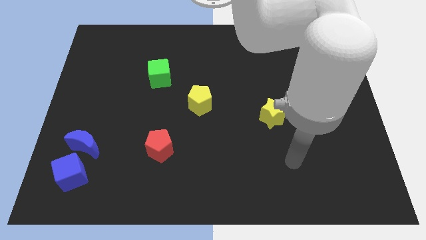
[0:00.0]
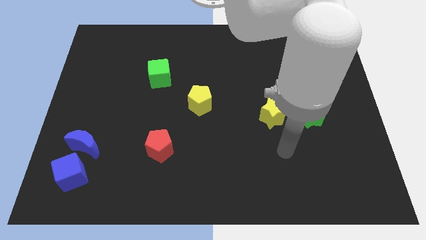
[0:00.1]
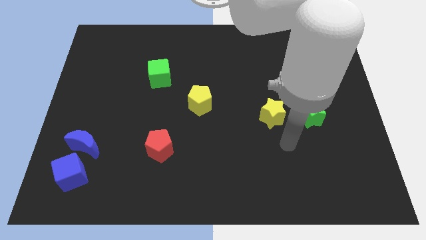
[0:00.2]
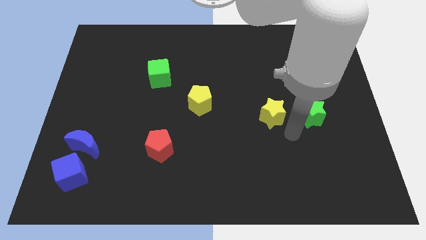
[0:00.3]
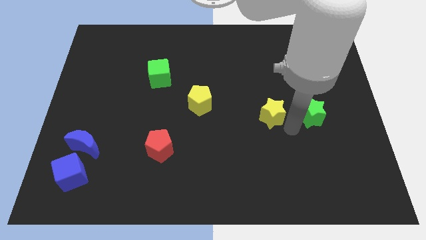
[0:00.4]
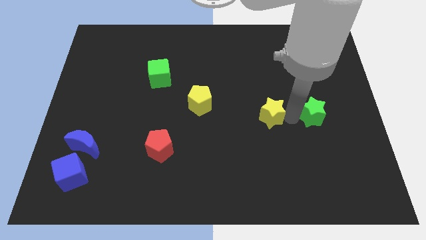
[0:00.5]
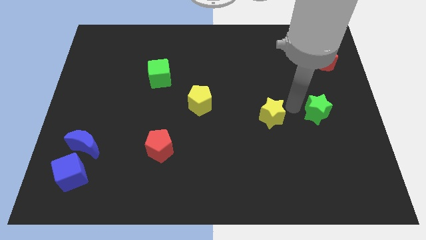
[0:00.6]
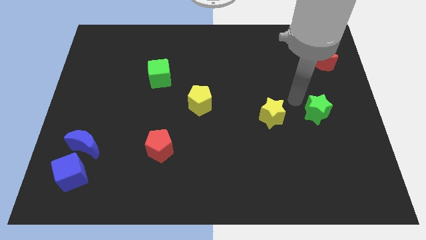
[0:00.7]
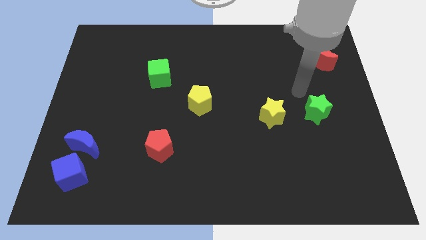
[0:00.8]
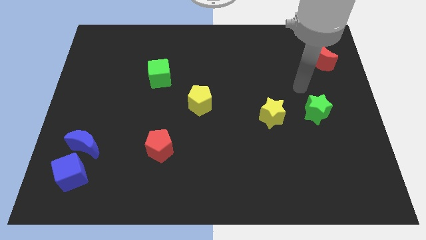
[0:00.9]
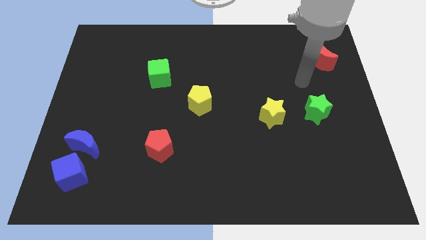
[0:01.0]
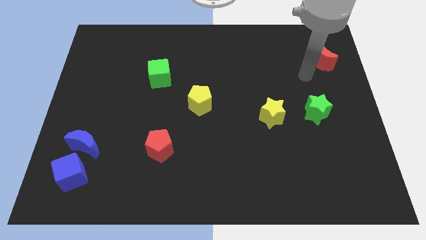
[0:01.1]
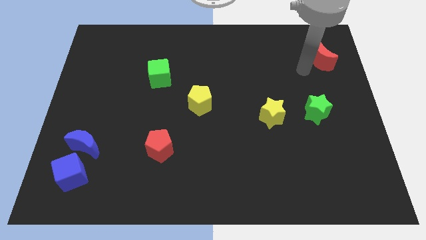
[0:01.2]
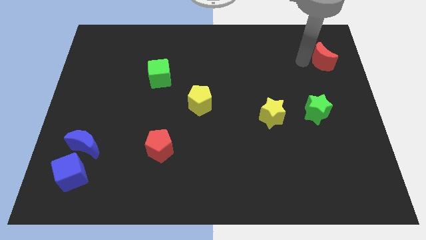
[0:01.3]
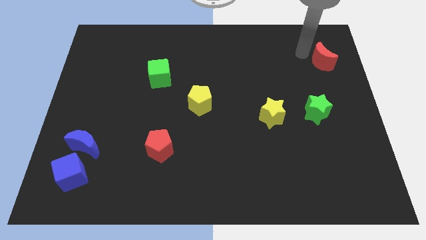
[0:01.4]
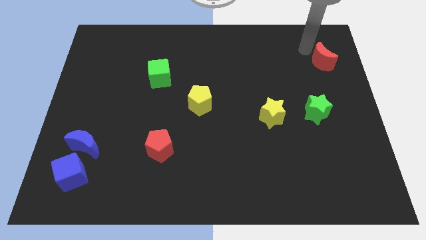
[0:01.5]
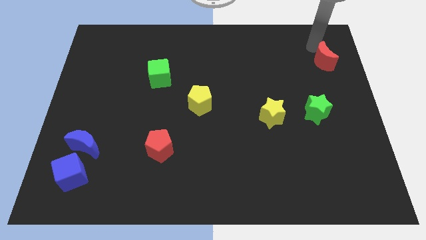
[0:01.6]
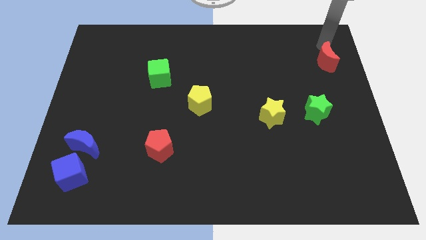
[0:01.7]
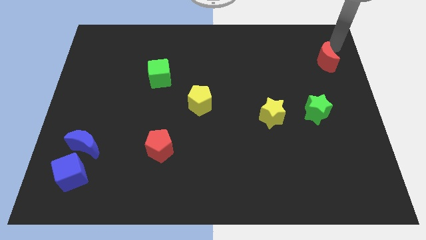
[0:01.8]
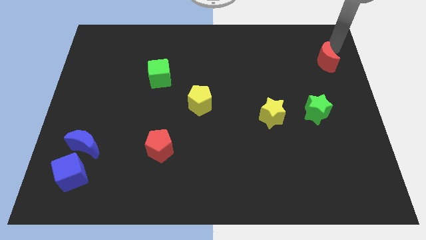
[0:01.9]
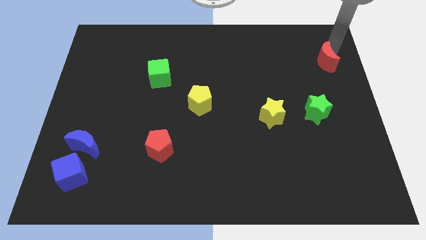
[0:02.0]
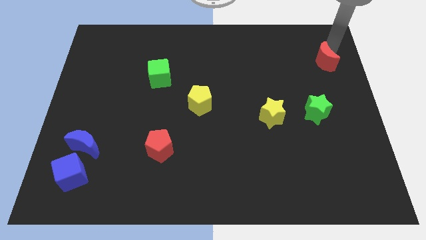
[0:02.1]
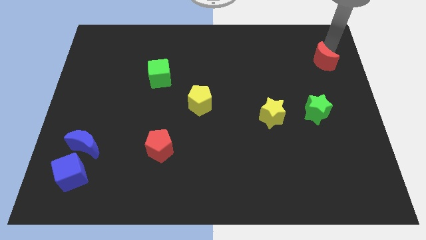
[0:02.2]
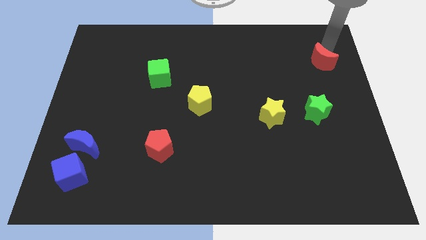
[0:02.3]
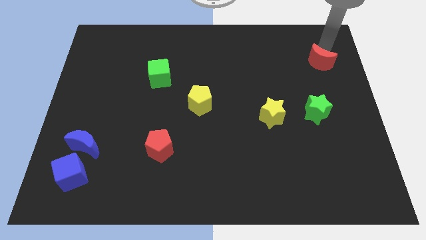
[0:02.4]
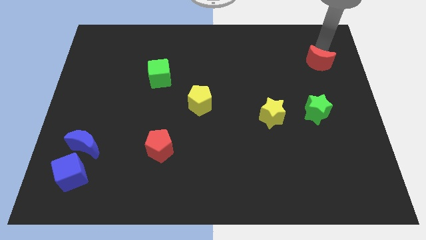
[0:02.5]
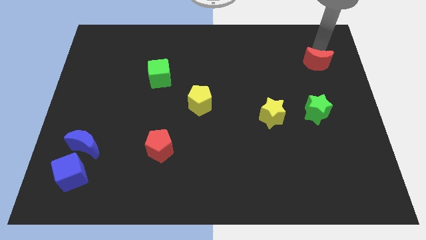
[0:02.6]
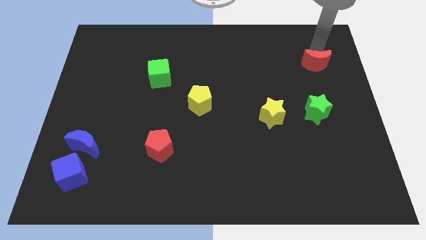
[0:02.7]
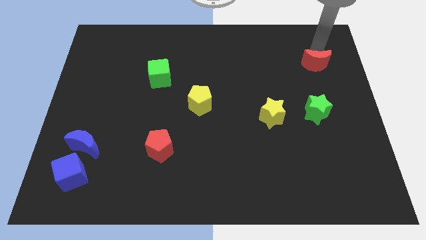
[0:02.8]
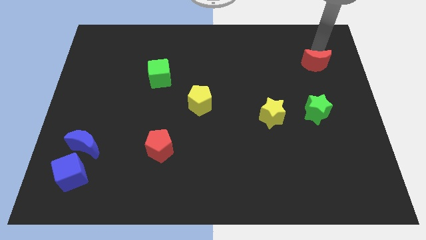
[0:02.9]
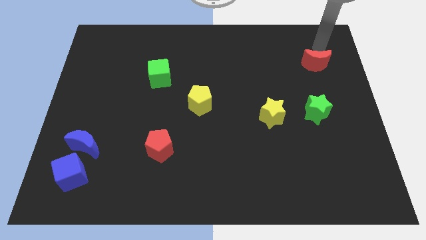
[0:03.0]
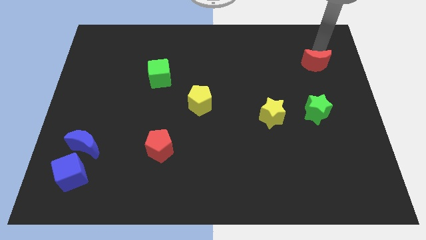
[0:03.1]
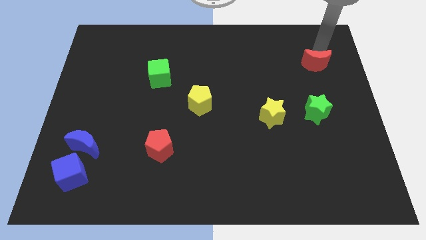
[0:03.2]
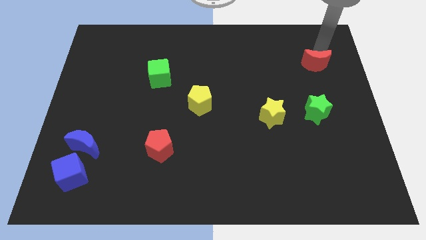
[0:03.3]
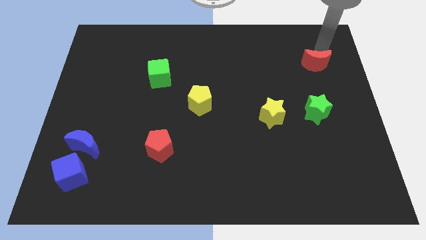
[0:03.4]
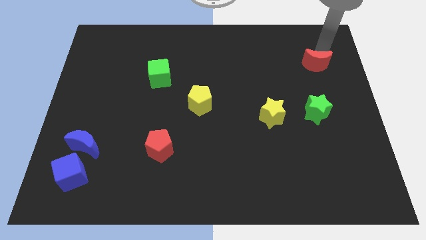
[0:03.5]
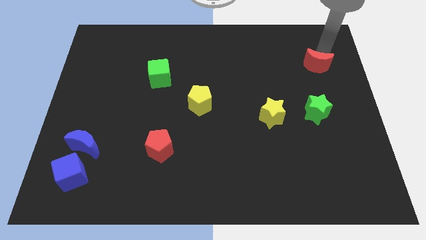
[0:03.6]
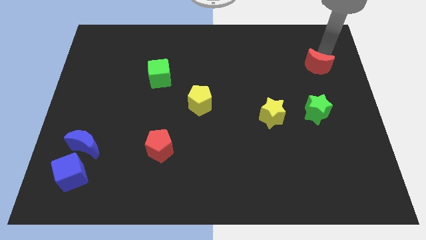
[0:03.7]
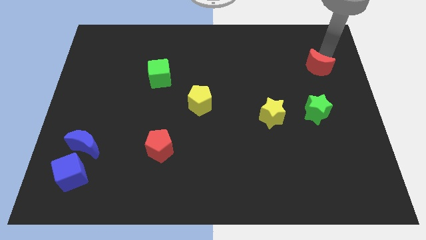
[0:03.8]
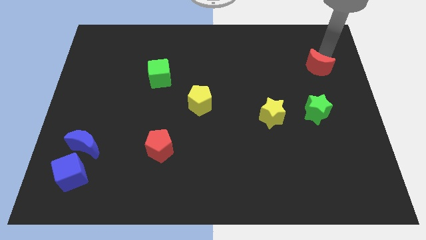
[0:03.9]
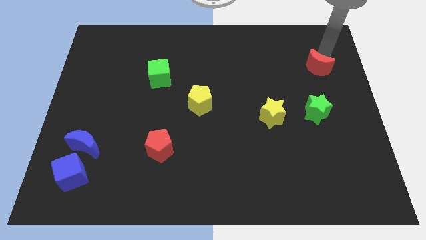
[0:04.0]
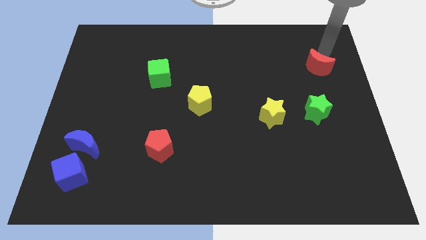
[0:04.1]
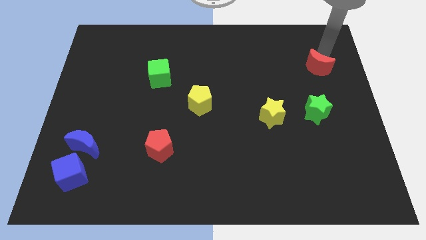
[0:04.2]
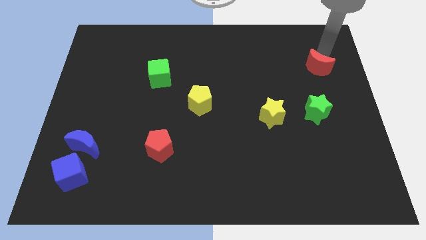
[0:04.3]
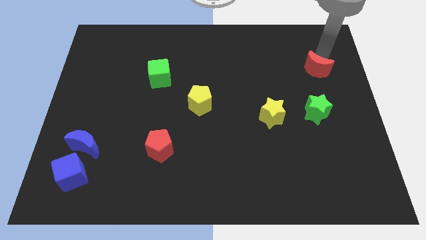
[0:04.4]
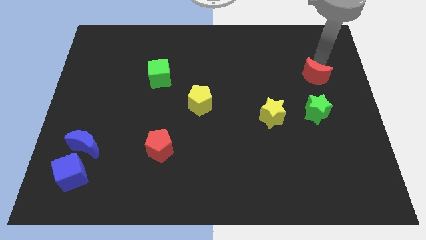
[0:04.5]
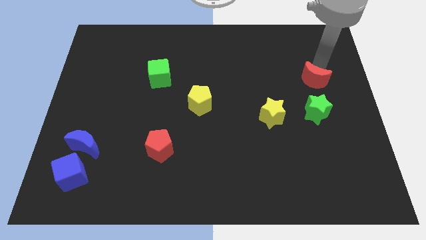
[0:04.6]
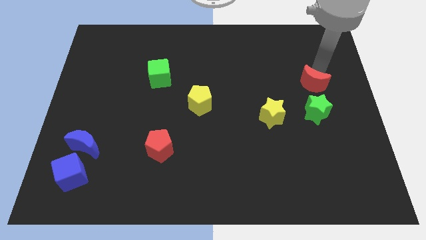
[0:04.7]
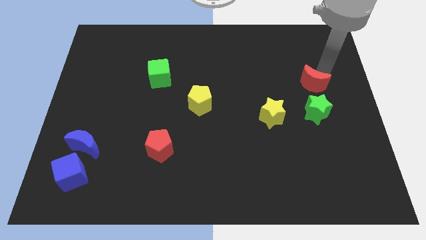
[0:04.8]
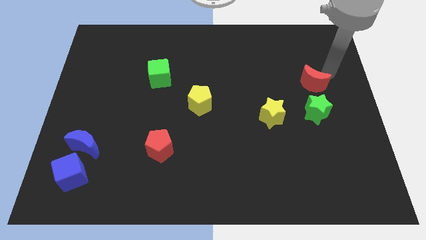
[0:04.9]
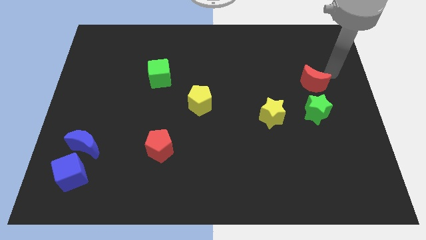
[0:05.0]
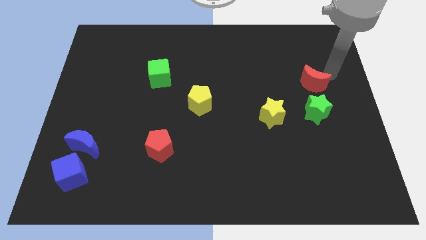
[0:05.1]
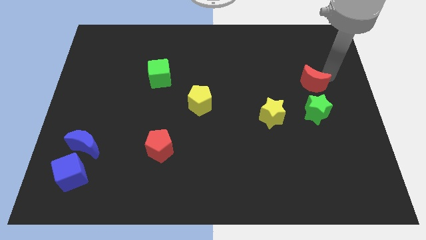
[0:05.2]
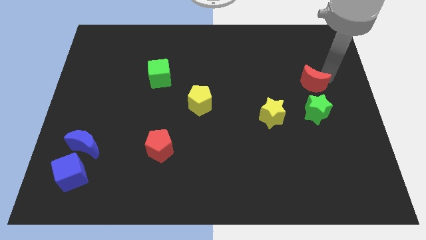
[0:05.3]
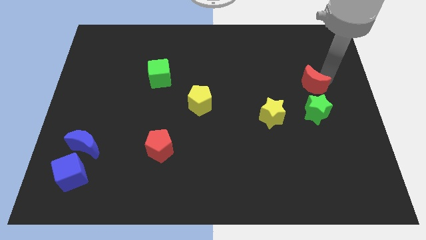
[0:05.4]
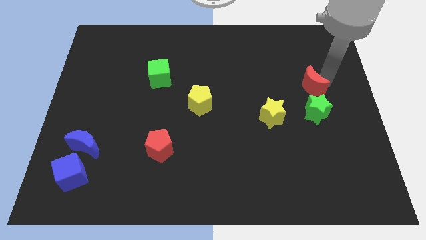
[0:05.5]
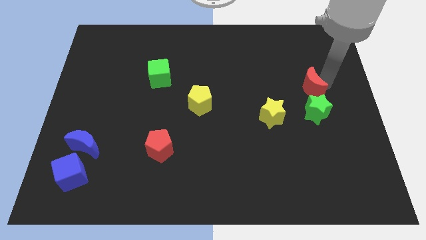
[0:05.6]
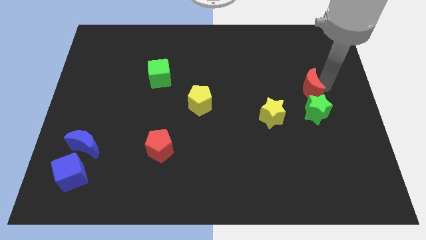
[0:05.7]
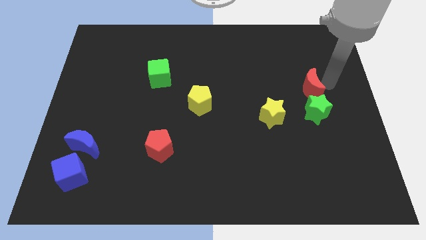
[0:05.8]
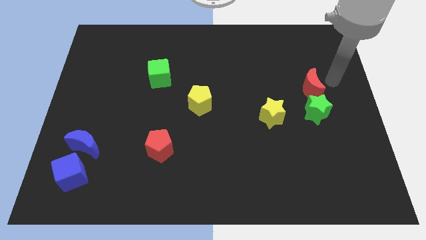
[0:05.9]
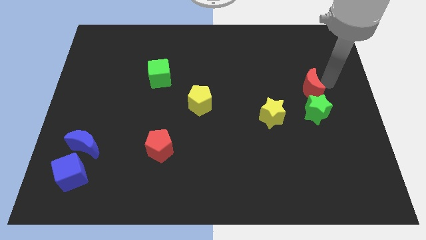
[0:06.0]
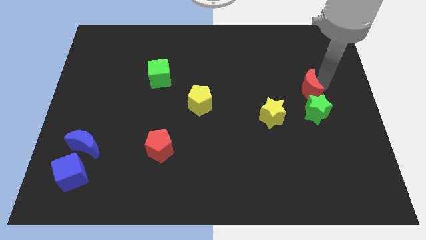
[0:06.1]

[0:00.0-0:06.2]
move the red moon diagonally up and to the left of the green star
